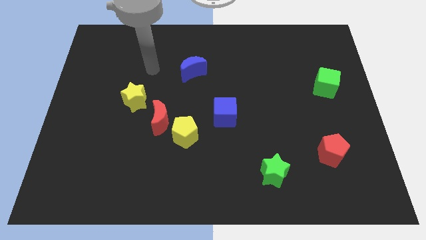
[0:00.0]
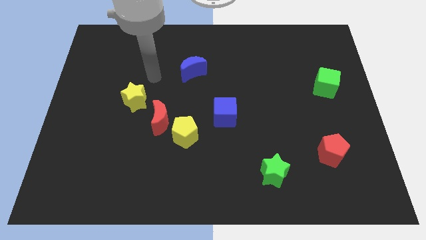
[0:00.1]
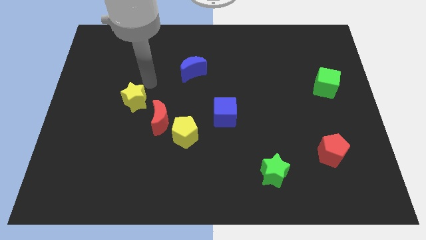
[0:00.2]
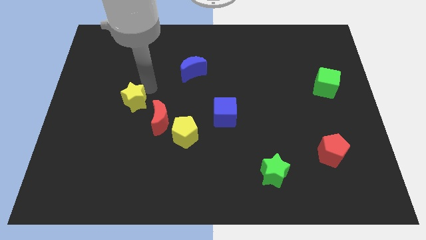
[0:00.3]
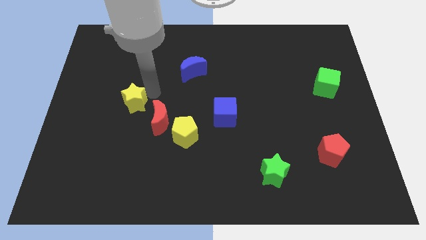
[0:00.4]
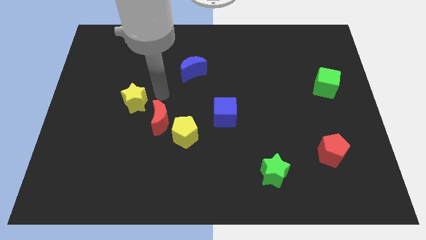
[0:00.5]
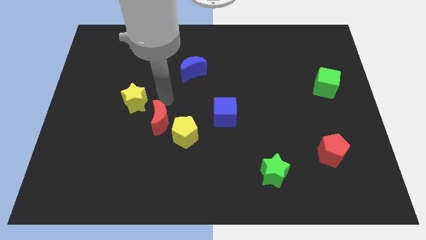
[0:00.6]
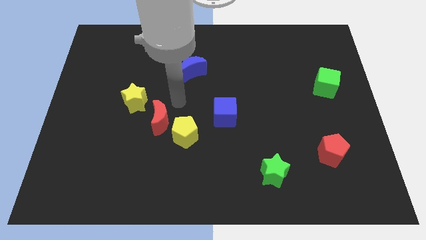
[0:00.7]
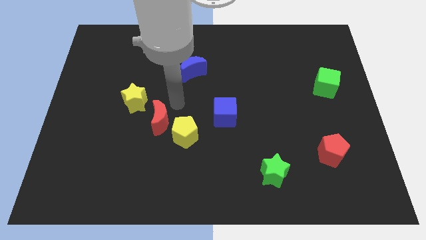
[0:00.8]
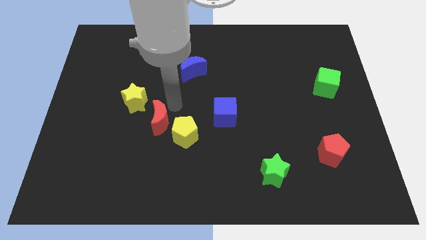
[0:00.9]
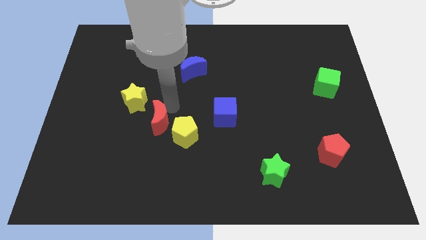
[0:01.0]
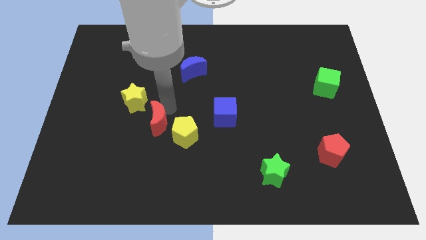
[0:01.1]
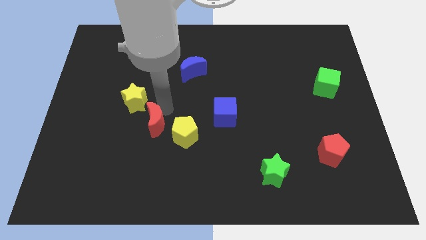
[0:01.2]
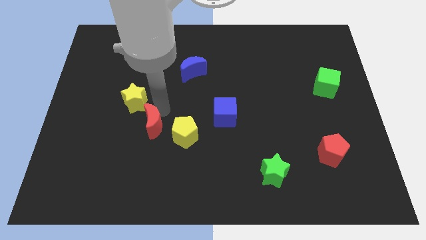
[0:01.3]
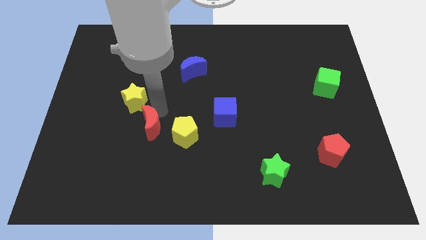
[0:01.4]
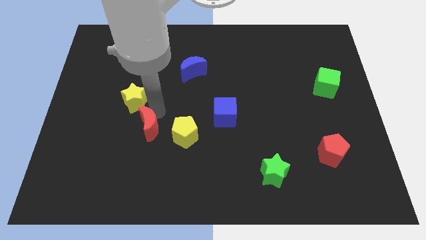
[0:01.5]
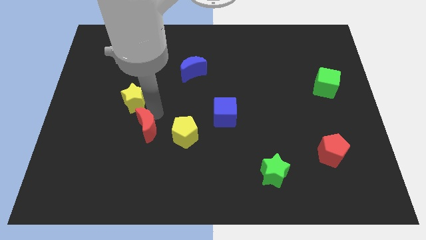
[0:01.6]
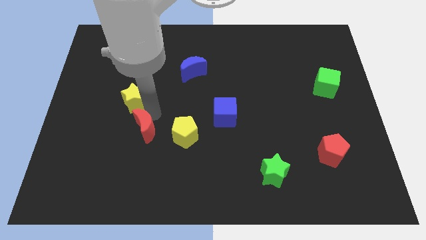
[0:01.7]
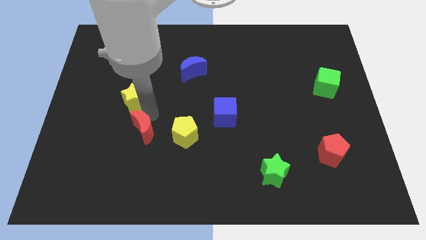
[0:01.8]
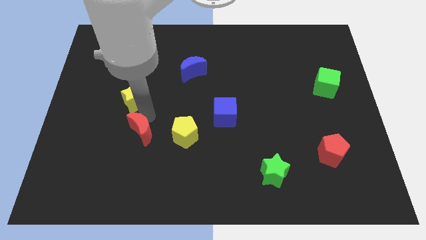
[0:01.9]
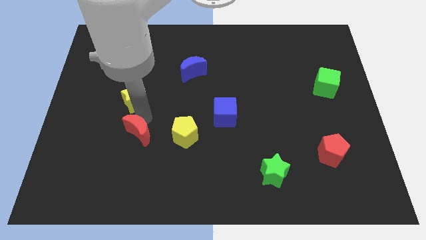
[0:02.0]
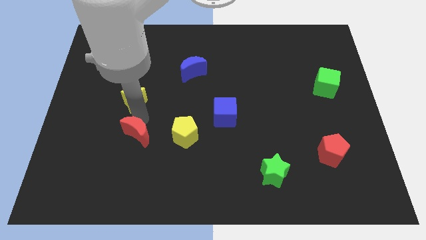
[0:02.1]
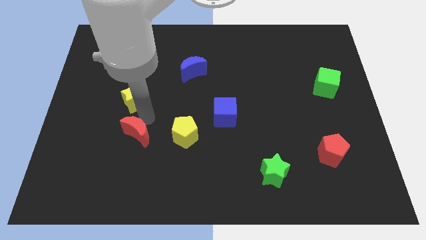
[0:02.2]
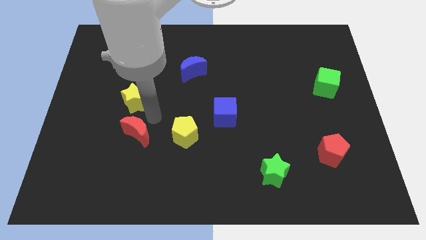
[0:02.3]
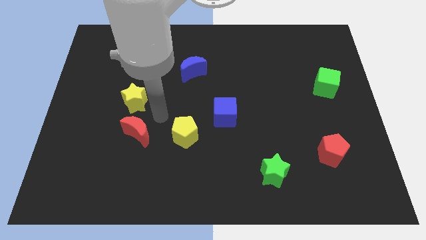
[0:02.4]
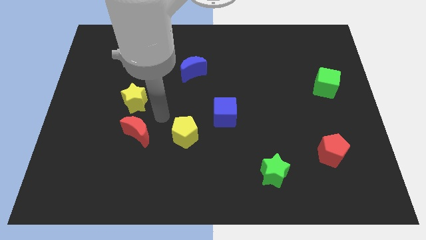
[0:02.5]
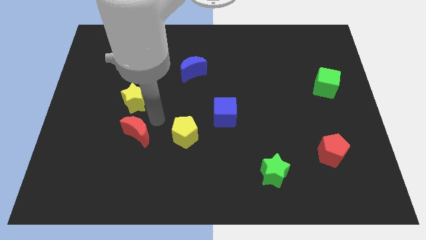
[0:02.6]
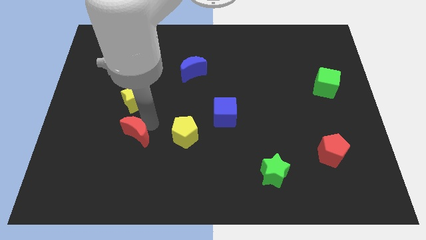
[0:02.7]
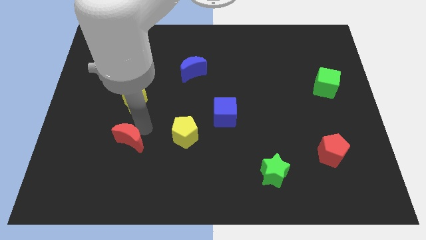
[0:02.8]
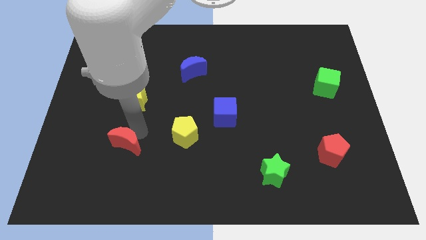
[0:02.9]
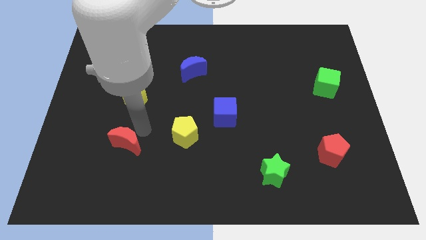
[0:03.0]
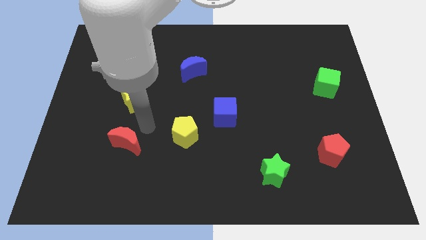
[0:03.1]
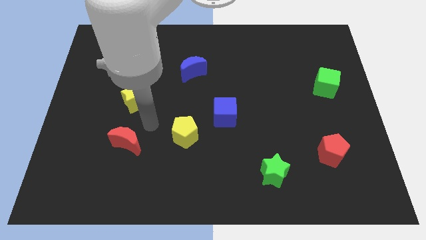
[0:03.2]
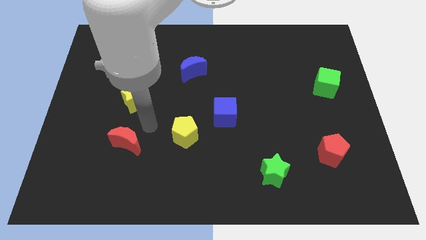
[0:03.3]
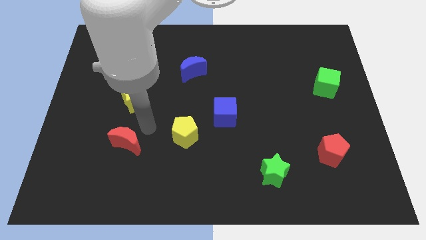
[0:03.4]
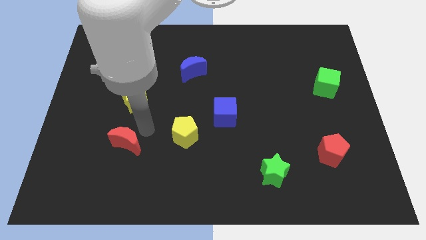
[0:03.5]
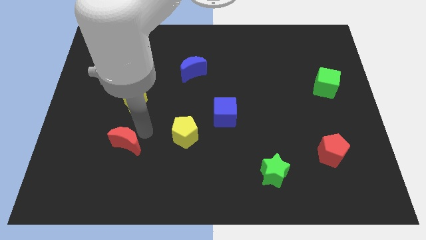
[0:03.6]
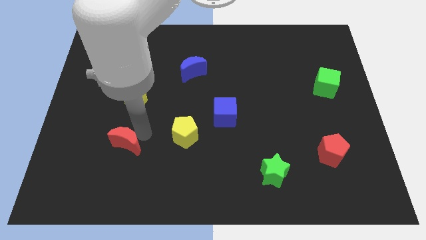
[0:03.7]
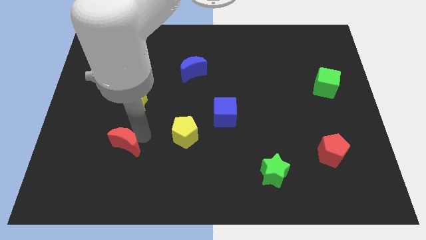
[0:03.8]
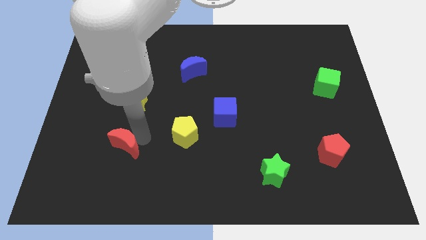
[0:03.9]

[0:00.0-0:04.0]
separate the red moon from the yellow pentagon and yellow star

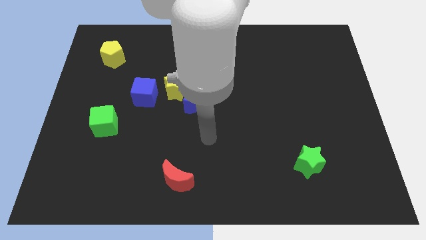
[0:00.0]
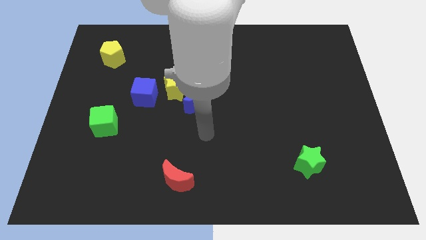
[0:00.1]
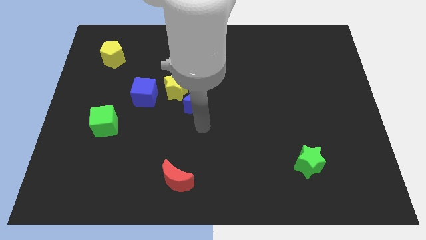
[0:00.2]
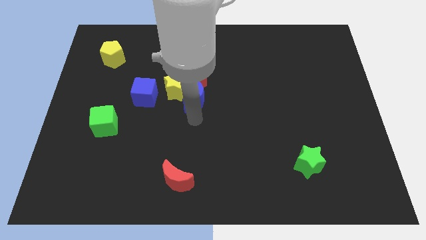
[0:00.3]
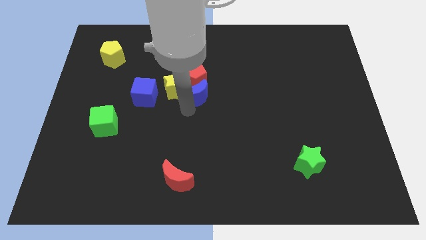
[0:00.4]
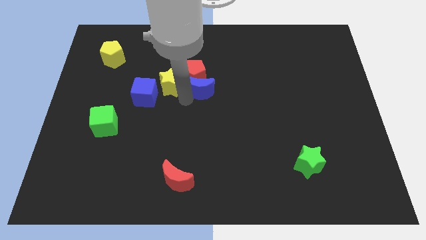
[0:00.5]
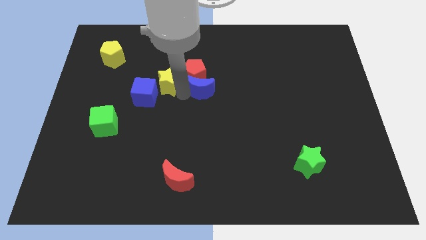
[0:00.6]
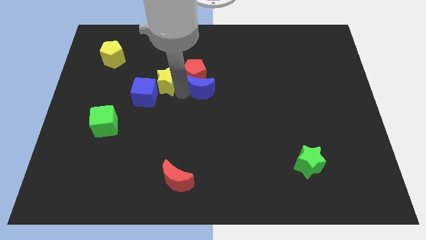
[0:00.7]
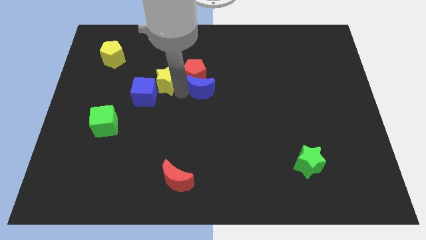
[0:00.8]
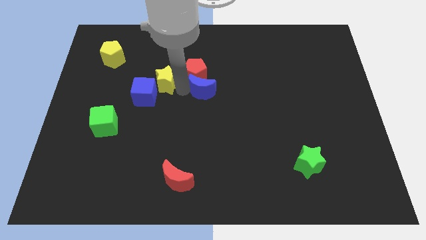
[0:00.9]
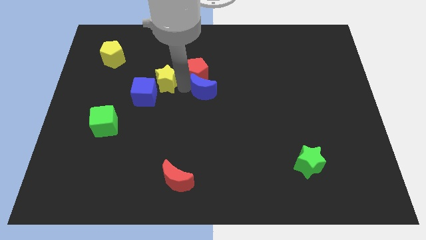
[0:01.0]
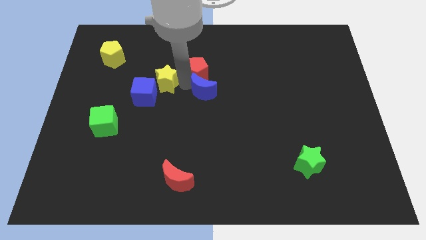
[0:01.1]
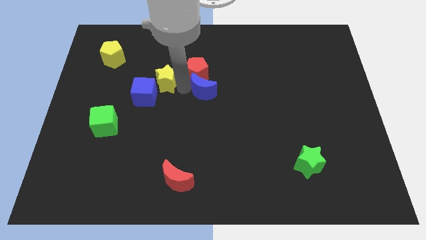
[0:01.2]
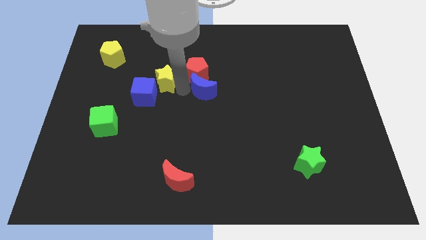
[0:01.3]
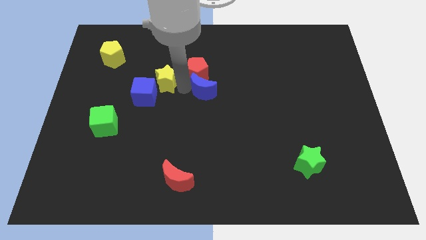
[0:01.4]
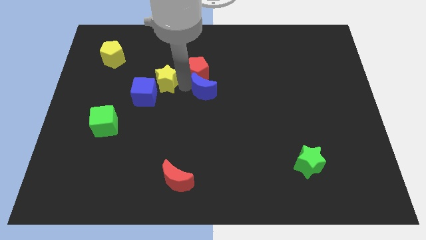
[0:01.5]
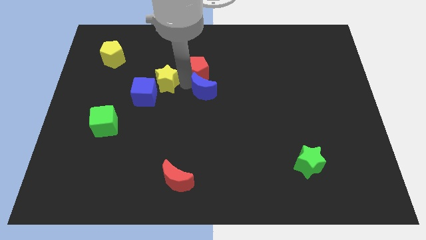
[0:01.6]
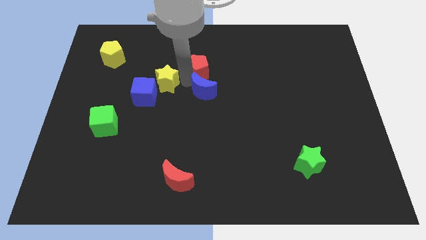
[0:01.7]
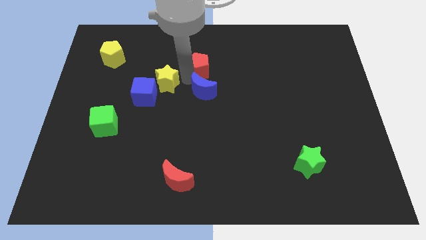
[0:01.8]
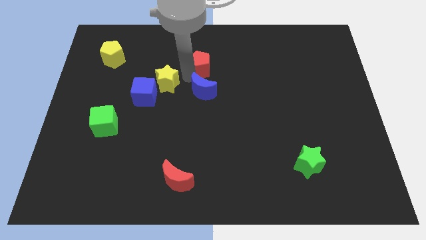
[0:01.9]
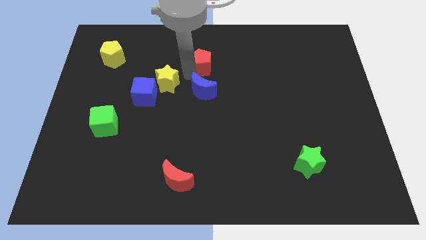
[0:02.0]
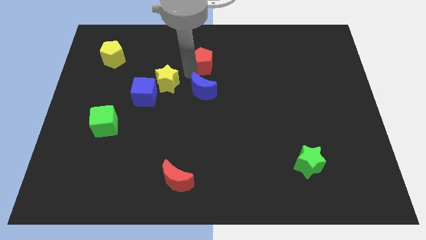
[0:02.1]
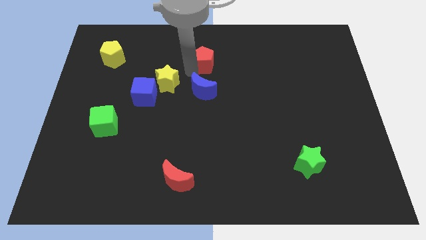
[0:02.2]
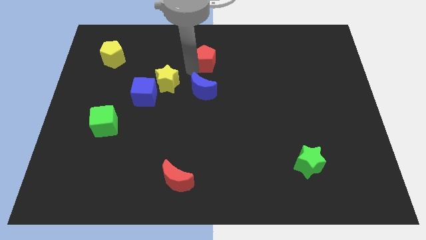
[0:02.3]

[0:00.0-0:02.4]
separate the red pentagon from the yellow star and blue moon

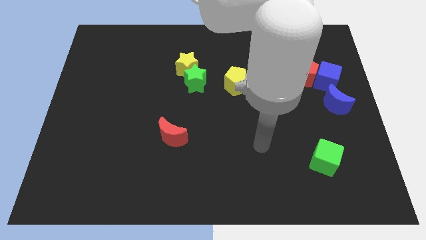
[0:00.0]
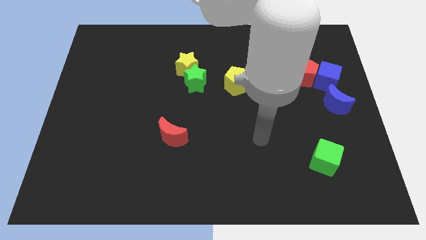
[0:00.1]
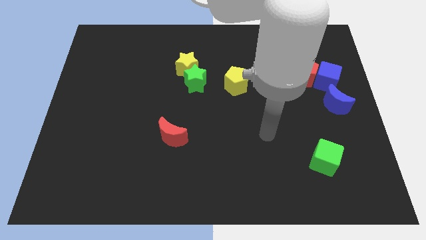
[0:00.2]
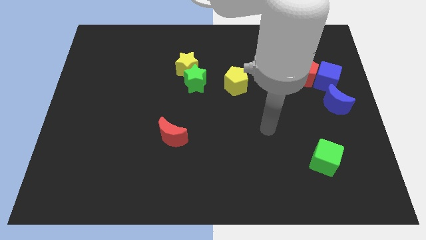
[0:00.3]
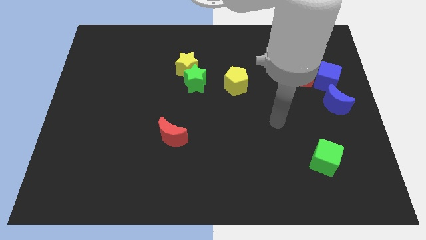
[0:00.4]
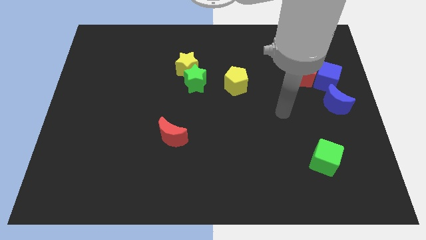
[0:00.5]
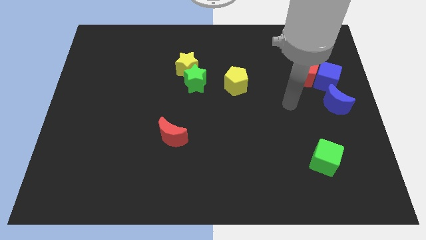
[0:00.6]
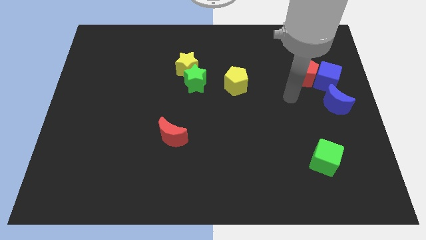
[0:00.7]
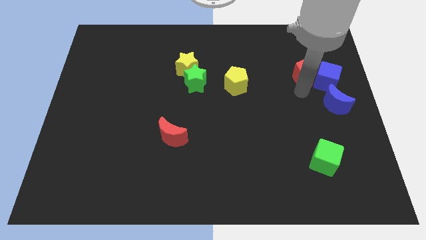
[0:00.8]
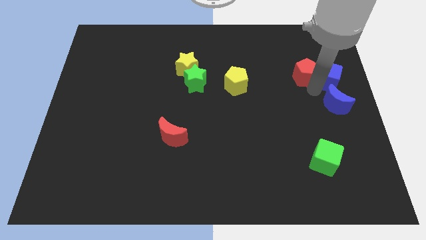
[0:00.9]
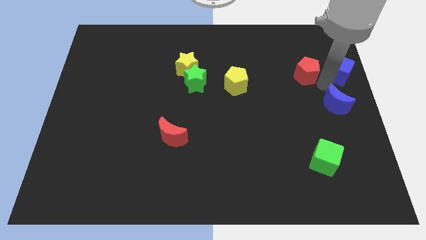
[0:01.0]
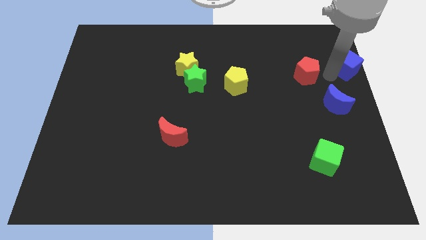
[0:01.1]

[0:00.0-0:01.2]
separate the red pentagon from the blue cube

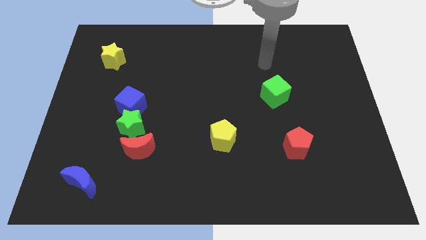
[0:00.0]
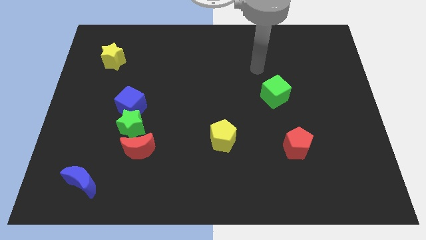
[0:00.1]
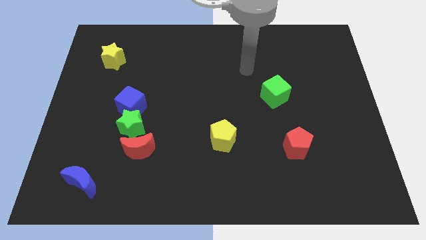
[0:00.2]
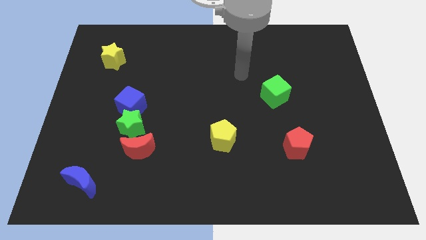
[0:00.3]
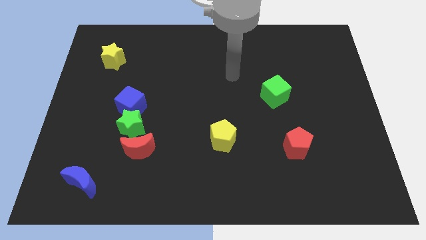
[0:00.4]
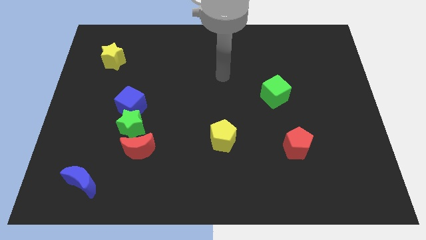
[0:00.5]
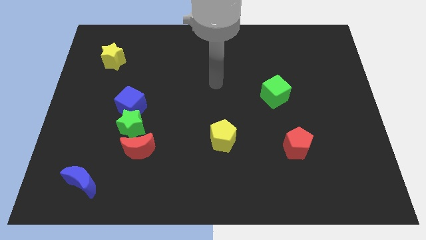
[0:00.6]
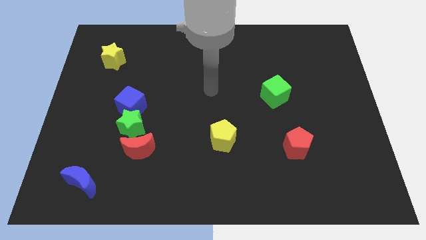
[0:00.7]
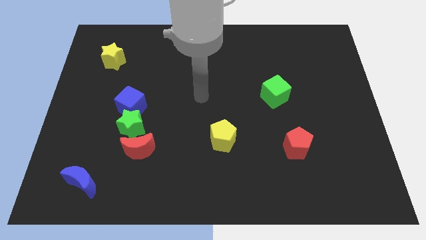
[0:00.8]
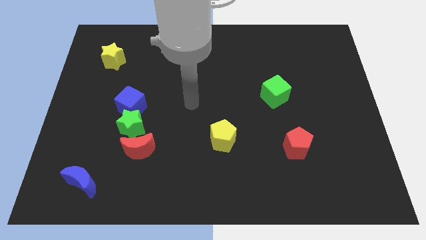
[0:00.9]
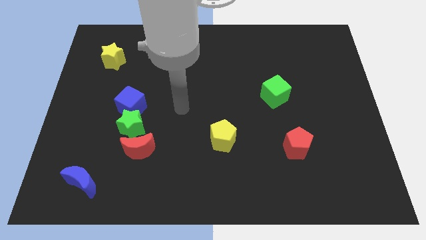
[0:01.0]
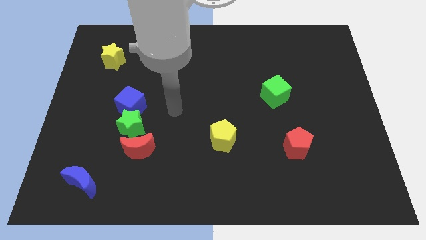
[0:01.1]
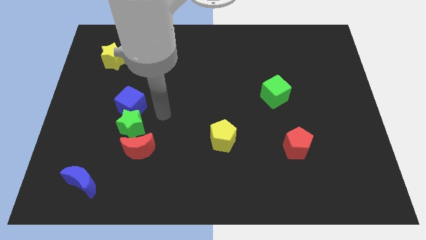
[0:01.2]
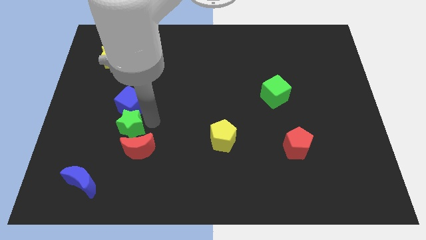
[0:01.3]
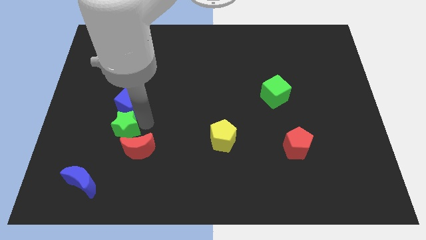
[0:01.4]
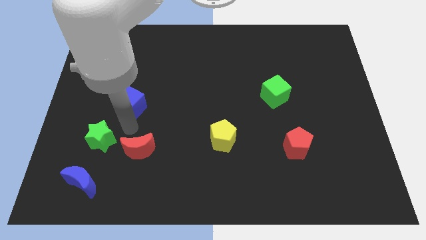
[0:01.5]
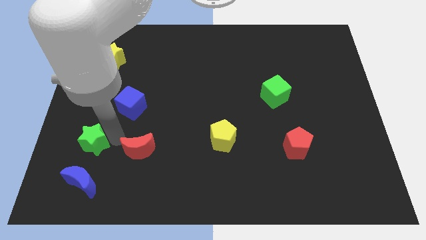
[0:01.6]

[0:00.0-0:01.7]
separate the red moon from the green star

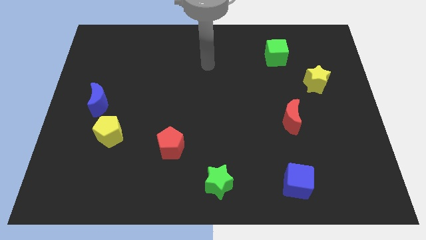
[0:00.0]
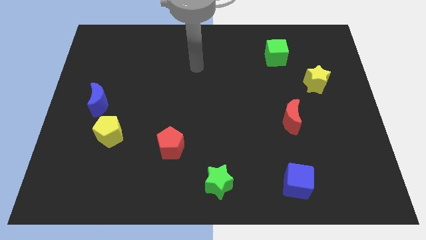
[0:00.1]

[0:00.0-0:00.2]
pull the blue moon apart from the yellow pentagon
